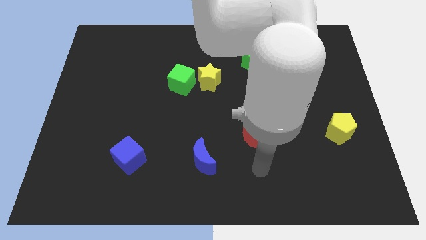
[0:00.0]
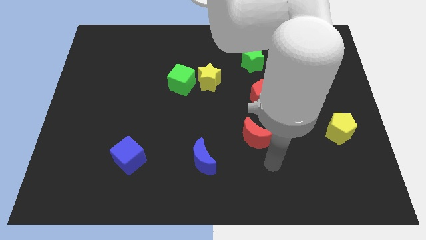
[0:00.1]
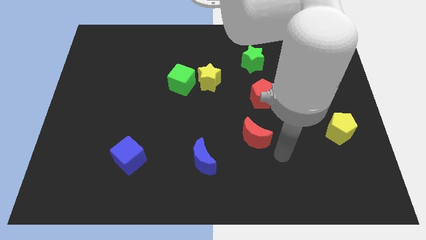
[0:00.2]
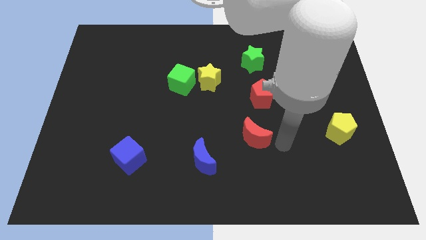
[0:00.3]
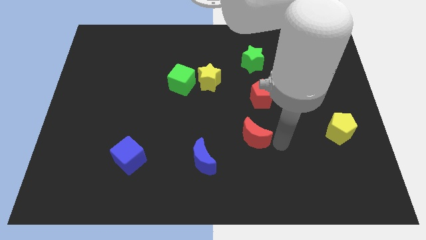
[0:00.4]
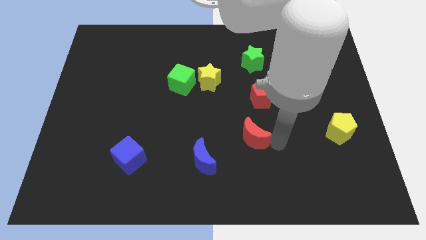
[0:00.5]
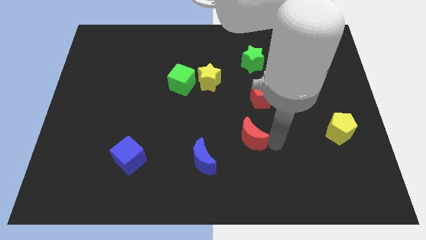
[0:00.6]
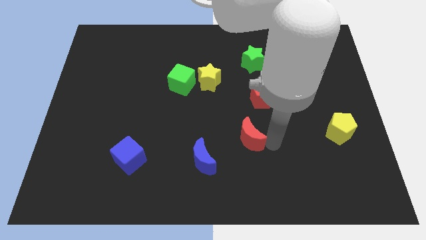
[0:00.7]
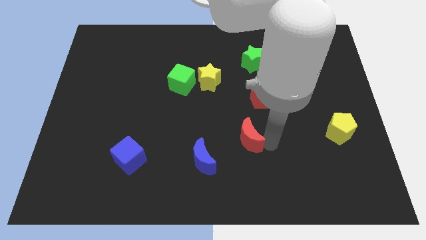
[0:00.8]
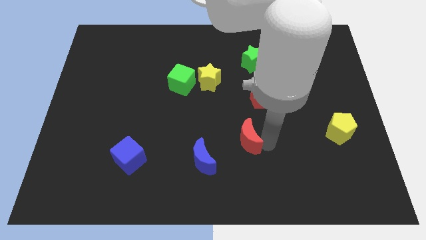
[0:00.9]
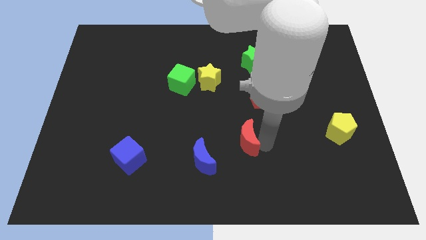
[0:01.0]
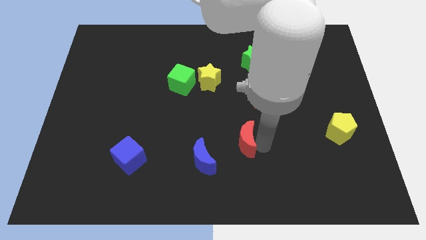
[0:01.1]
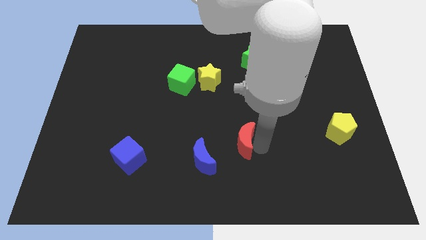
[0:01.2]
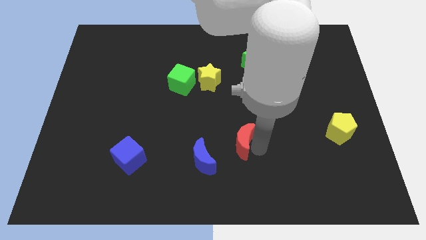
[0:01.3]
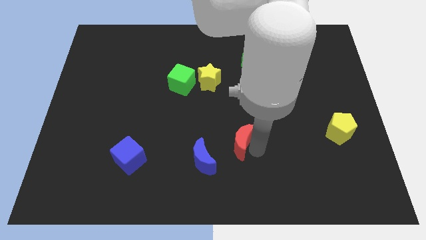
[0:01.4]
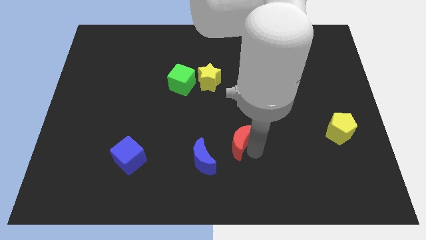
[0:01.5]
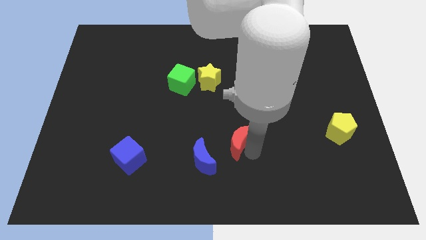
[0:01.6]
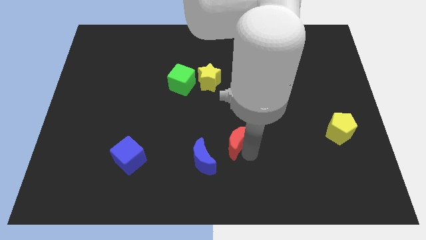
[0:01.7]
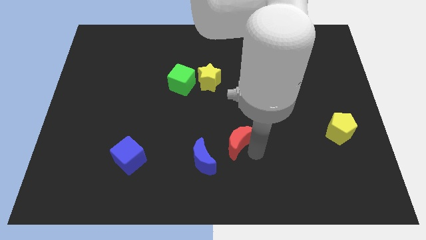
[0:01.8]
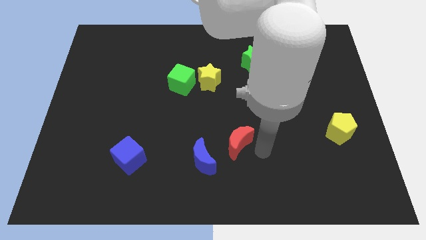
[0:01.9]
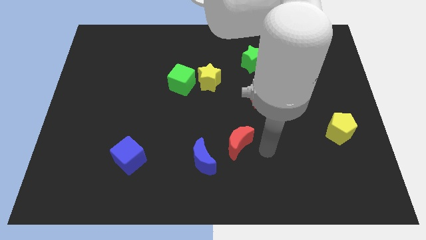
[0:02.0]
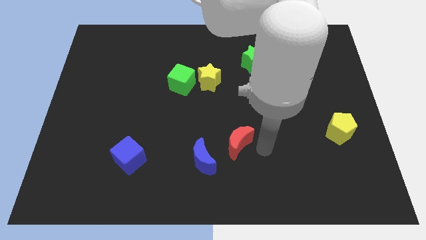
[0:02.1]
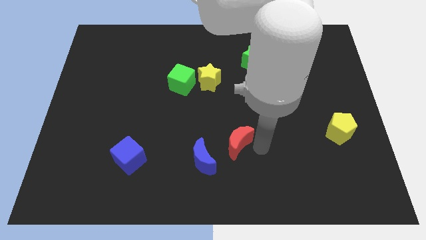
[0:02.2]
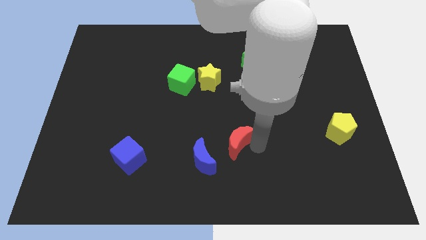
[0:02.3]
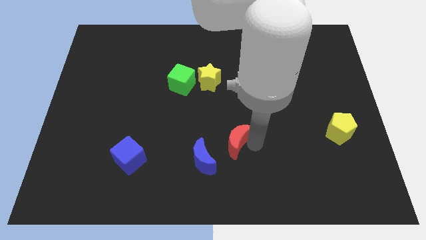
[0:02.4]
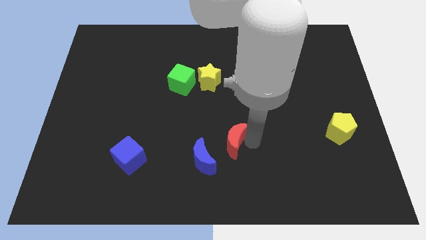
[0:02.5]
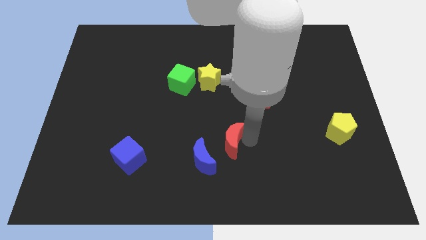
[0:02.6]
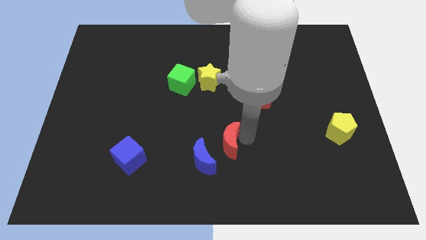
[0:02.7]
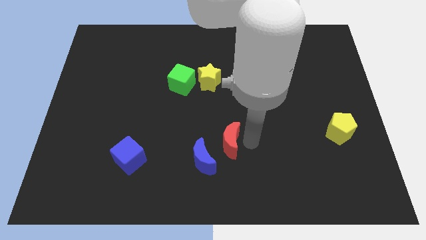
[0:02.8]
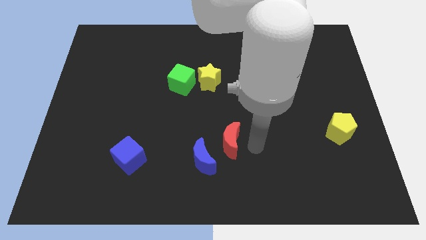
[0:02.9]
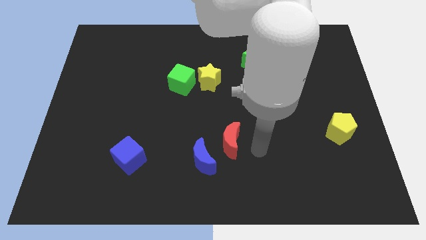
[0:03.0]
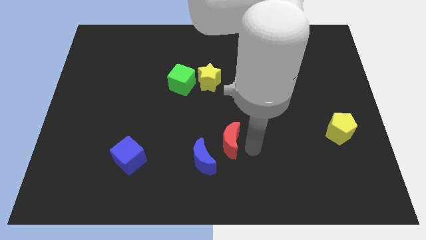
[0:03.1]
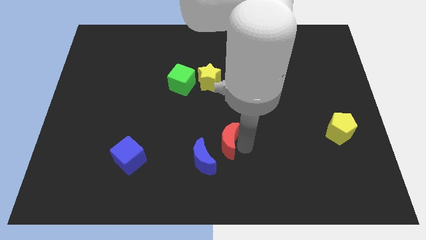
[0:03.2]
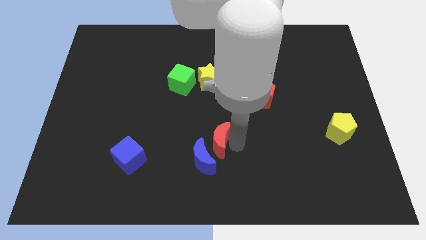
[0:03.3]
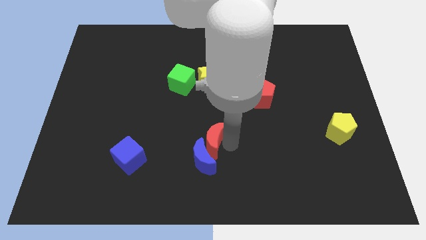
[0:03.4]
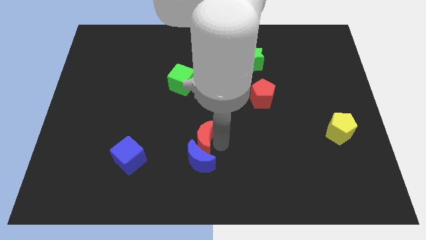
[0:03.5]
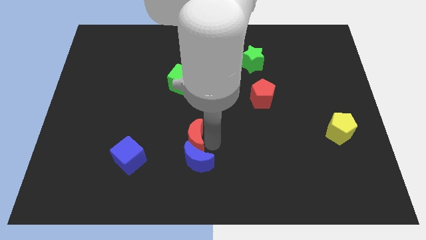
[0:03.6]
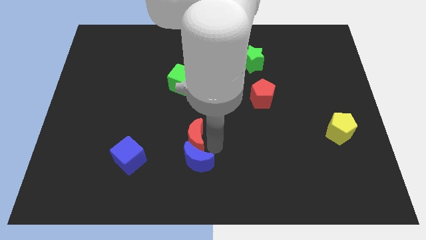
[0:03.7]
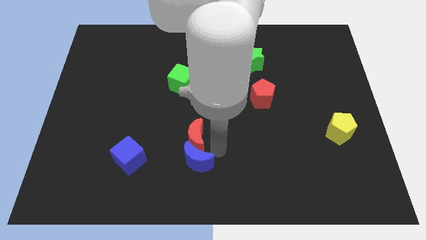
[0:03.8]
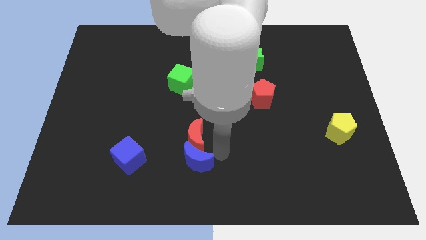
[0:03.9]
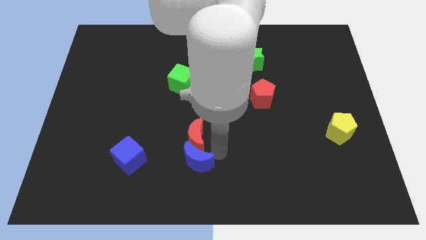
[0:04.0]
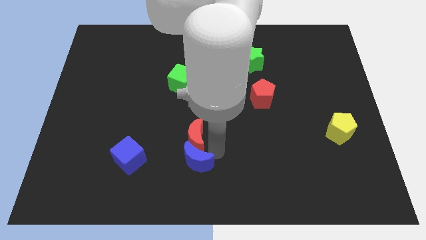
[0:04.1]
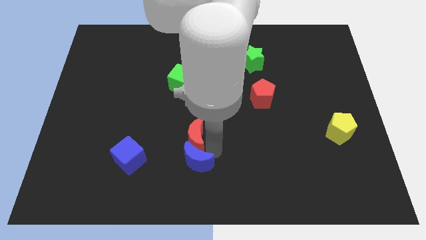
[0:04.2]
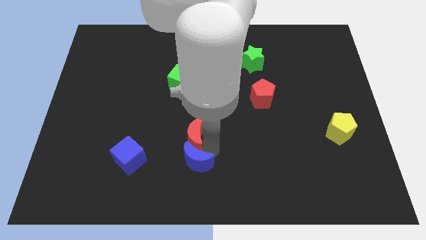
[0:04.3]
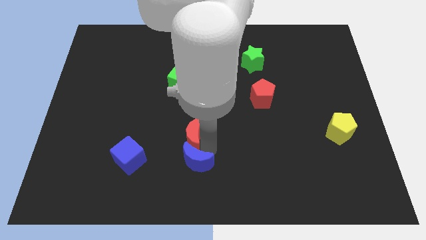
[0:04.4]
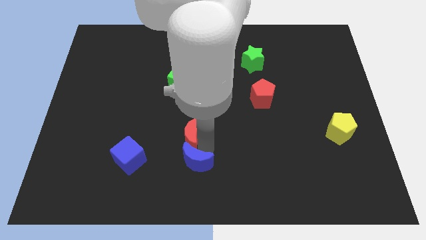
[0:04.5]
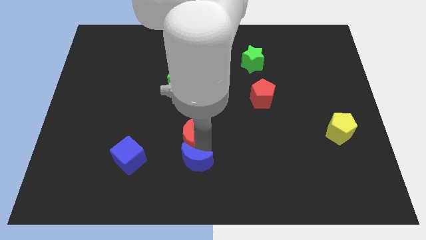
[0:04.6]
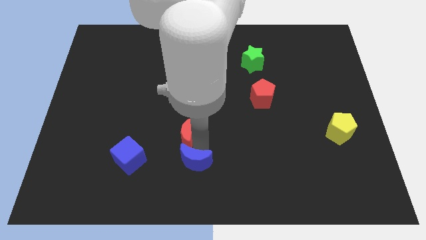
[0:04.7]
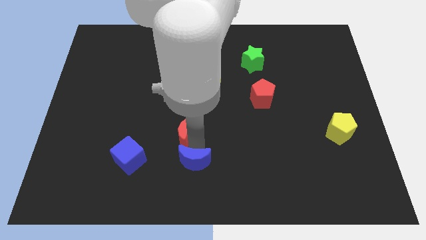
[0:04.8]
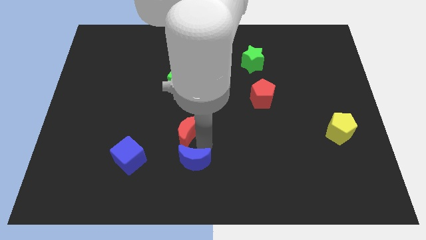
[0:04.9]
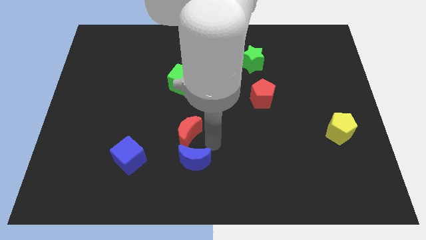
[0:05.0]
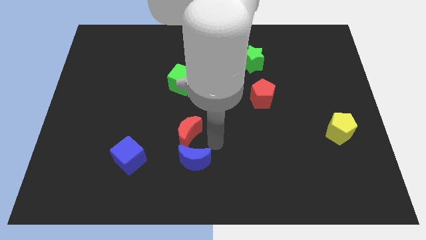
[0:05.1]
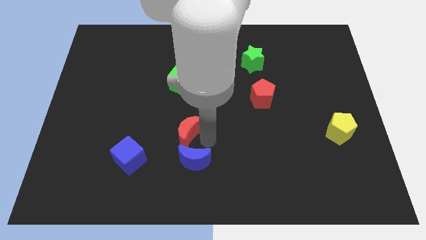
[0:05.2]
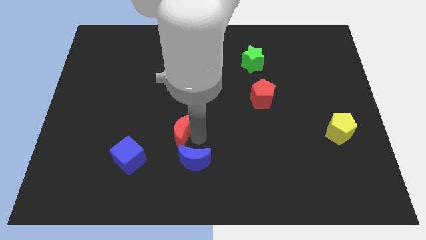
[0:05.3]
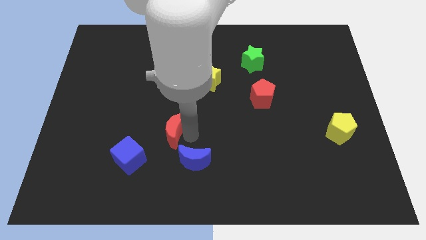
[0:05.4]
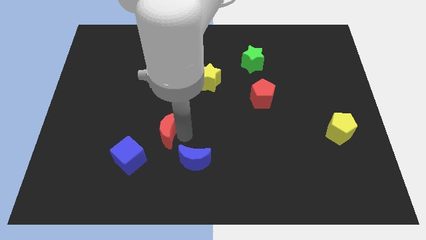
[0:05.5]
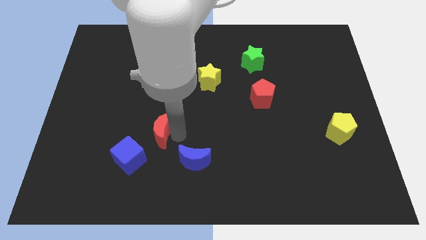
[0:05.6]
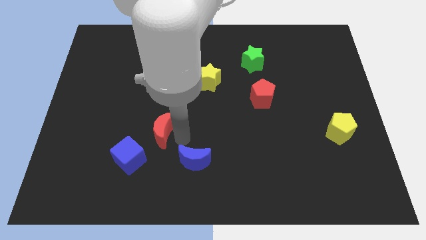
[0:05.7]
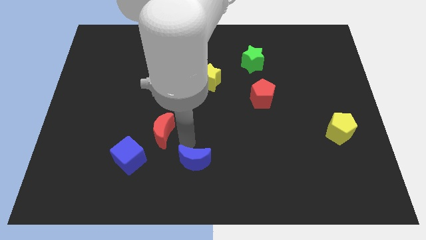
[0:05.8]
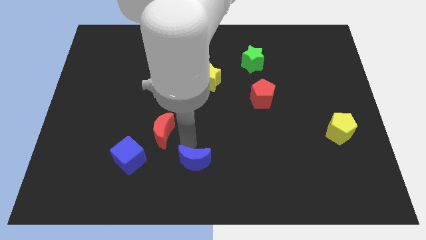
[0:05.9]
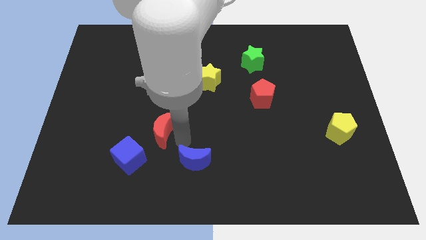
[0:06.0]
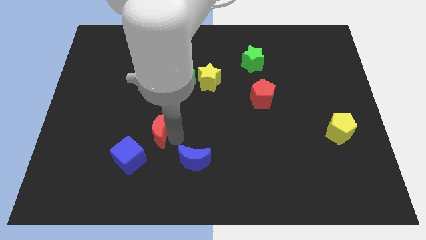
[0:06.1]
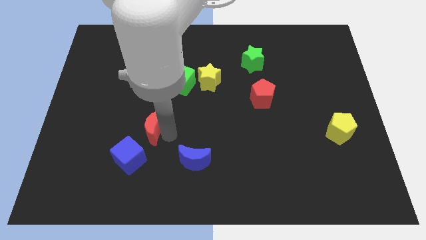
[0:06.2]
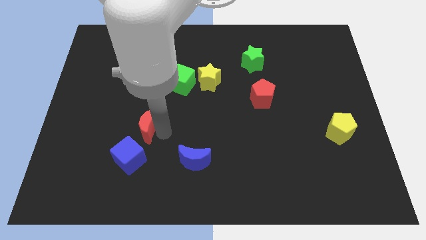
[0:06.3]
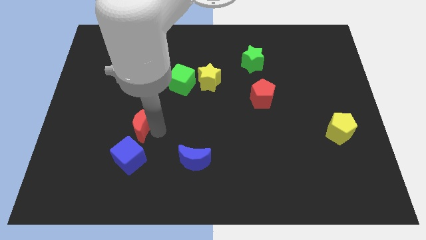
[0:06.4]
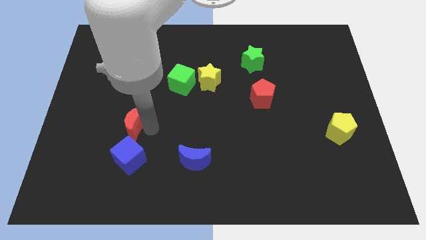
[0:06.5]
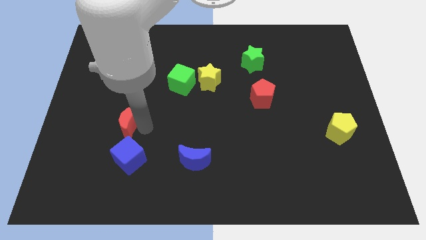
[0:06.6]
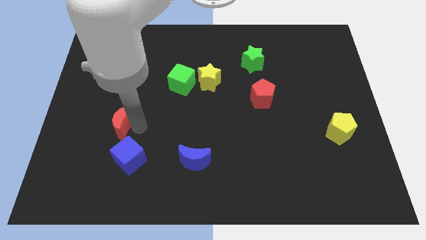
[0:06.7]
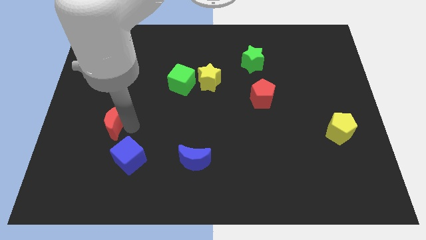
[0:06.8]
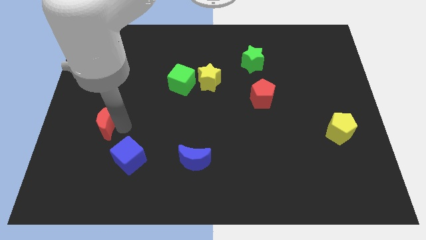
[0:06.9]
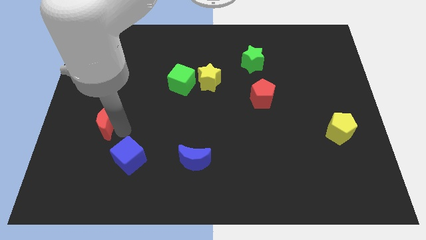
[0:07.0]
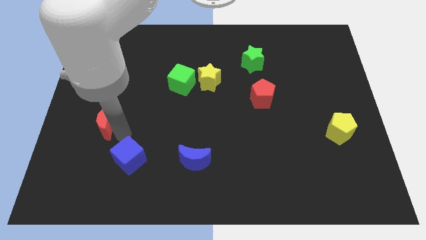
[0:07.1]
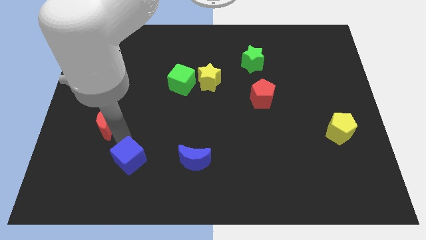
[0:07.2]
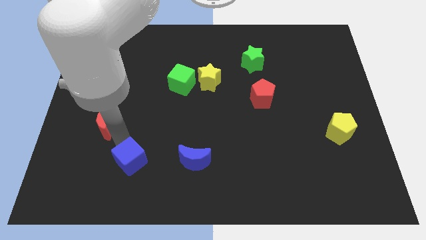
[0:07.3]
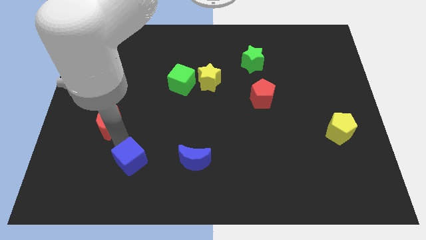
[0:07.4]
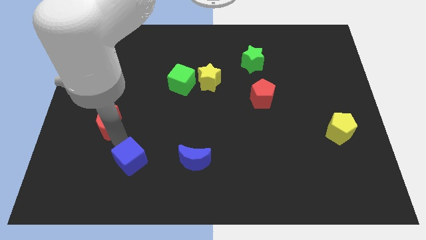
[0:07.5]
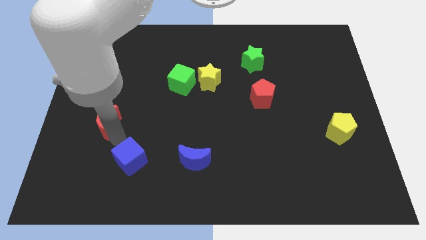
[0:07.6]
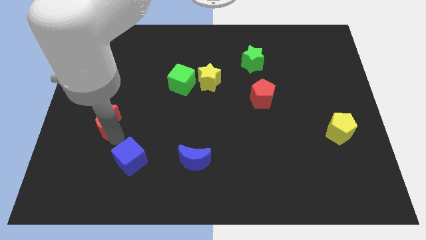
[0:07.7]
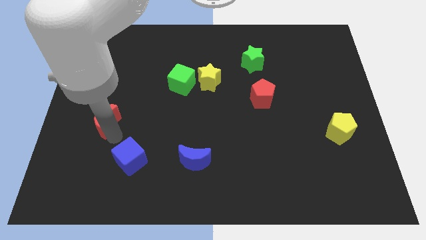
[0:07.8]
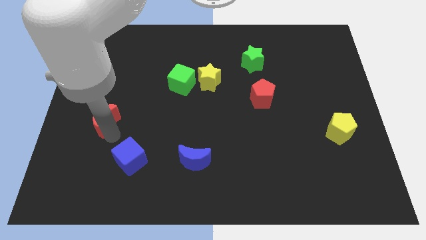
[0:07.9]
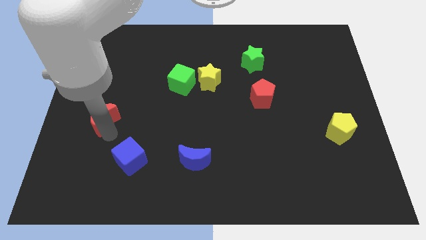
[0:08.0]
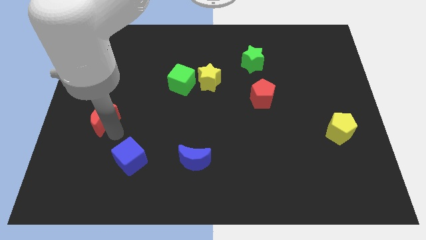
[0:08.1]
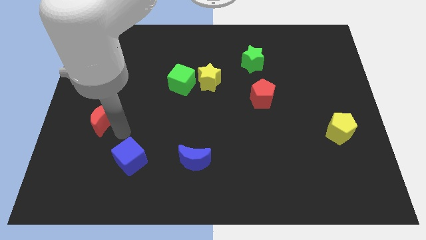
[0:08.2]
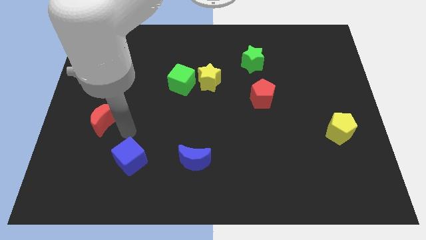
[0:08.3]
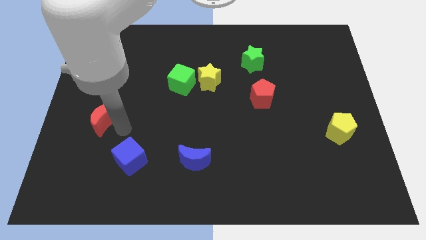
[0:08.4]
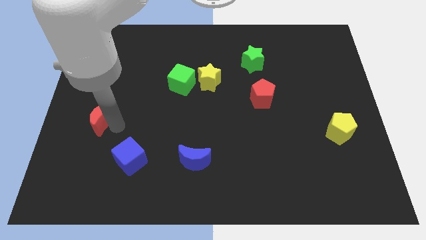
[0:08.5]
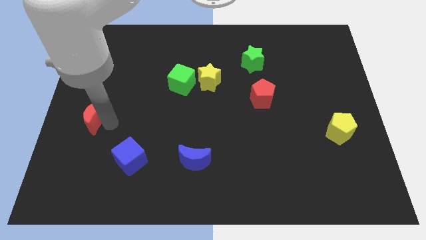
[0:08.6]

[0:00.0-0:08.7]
slide the red moon to the left side
